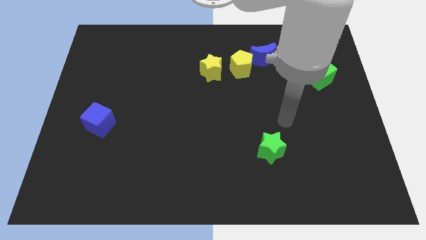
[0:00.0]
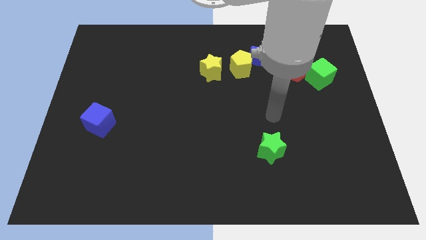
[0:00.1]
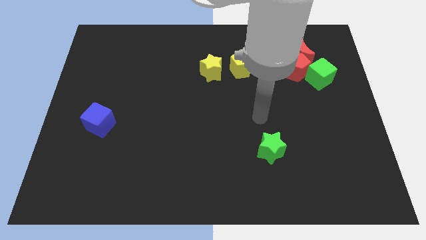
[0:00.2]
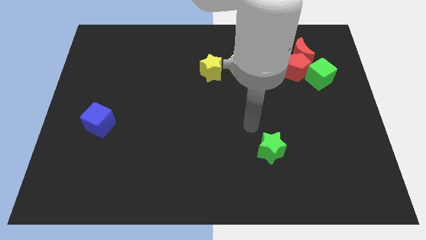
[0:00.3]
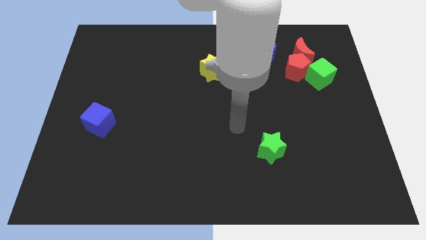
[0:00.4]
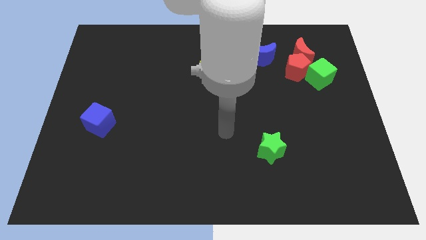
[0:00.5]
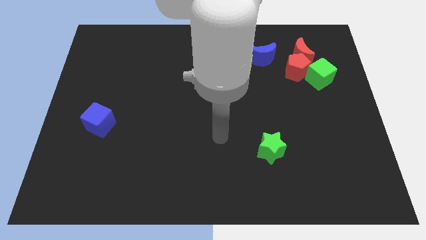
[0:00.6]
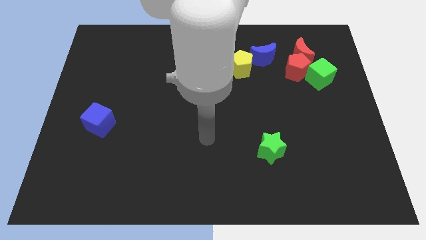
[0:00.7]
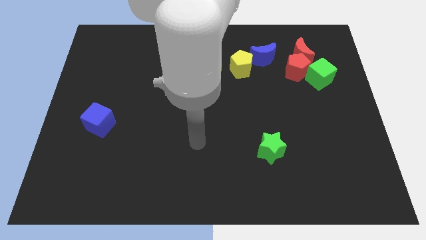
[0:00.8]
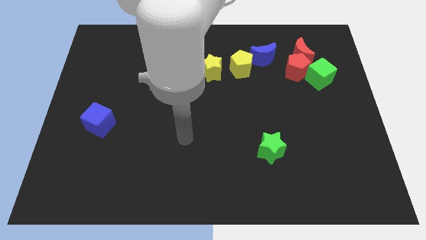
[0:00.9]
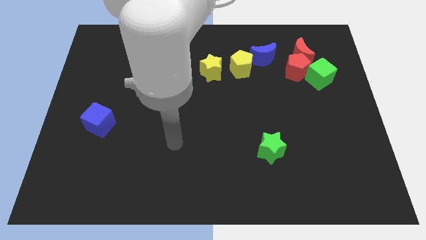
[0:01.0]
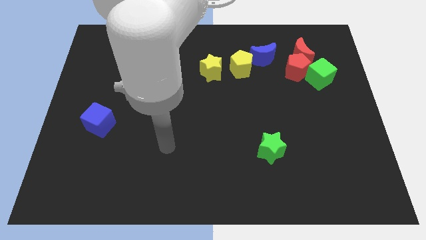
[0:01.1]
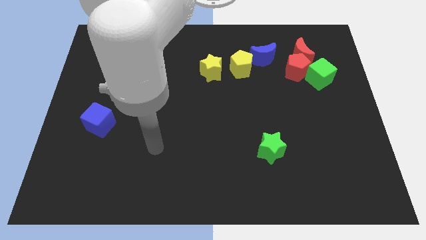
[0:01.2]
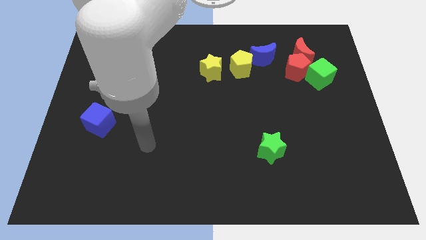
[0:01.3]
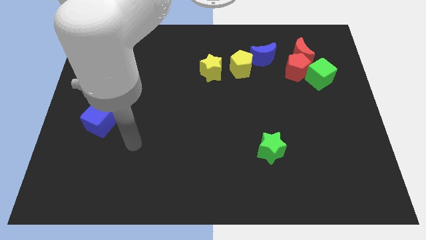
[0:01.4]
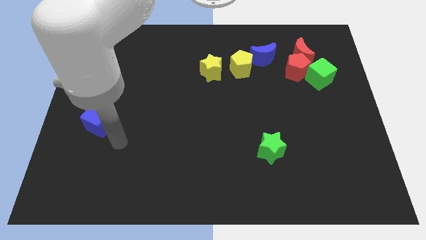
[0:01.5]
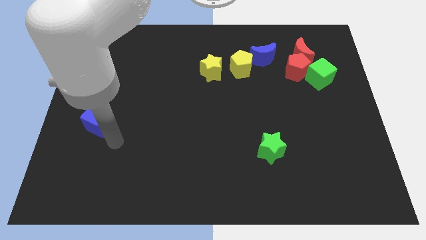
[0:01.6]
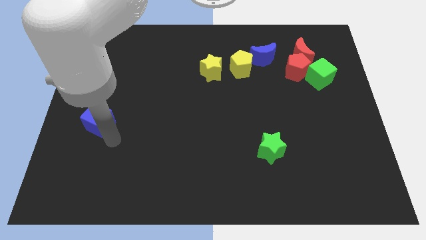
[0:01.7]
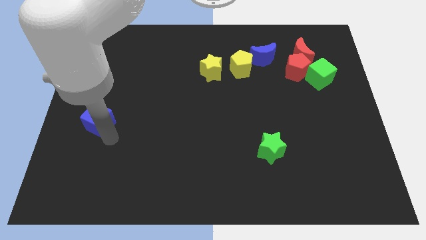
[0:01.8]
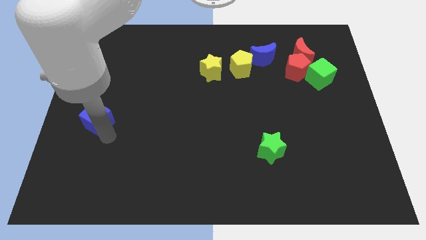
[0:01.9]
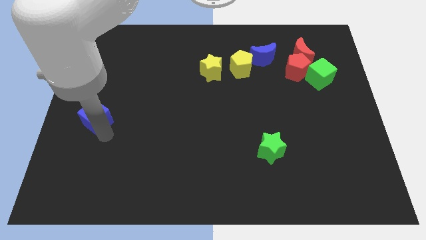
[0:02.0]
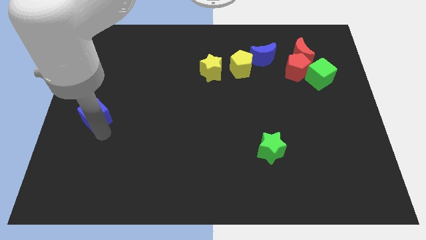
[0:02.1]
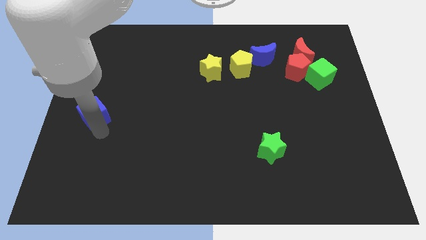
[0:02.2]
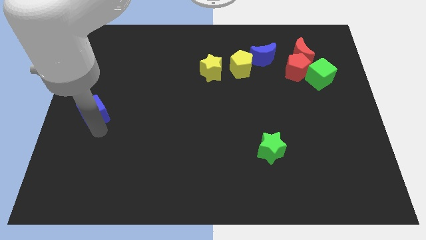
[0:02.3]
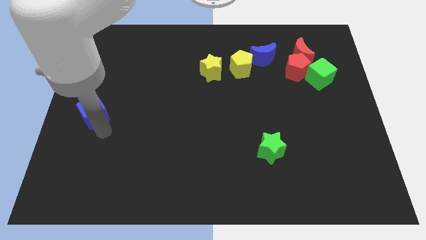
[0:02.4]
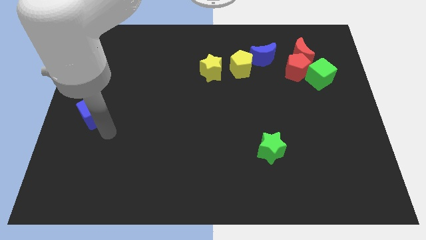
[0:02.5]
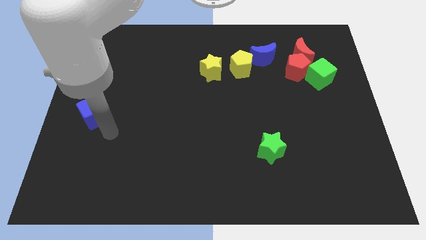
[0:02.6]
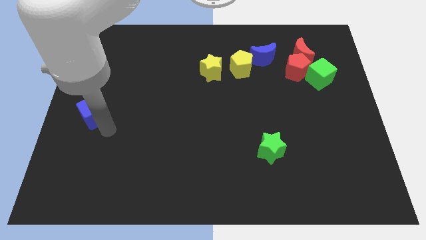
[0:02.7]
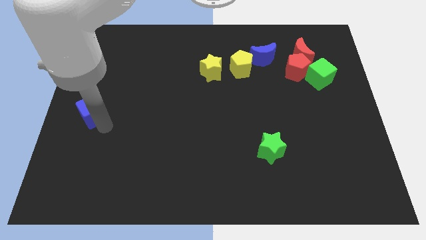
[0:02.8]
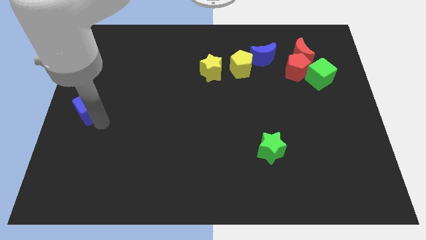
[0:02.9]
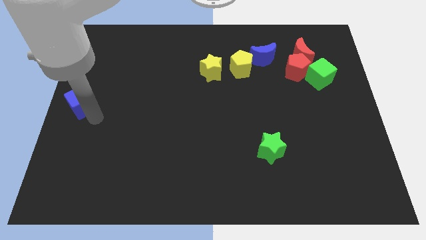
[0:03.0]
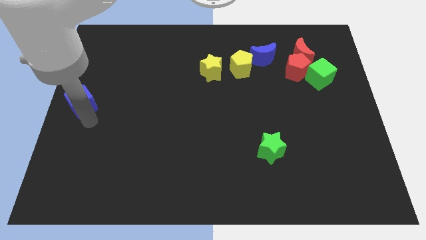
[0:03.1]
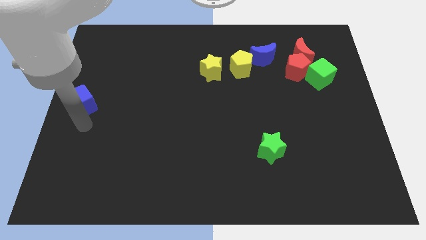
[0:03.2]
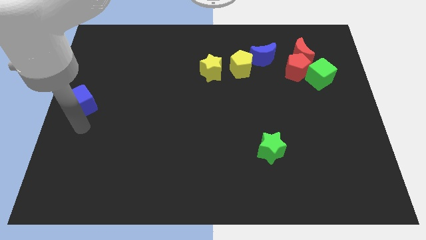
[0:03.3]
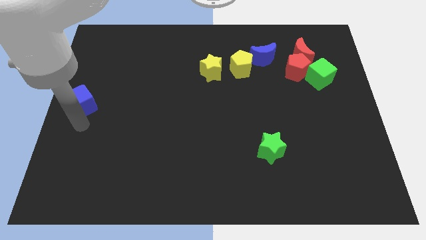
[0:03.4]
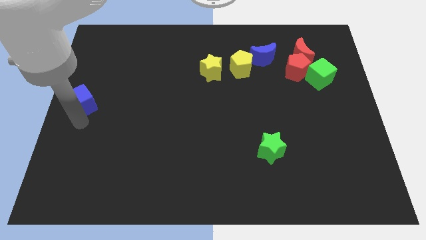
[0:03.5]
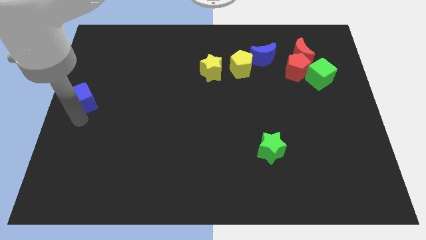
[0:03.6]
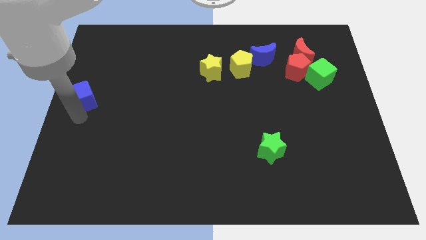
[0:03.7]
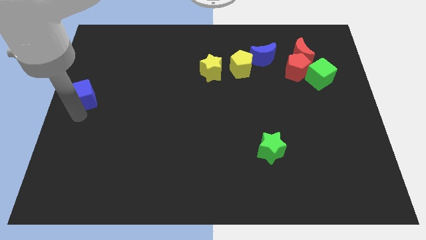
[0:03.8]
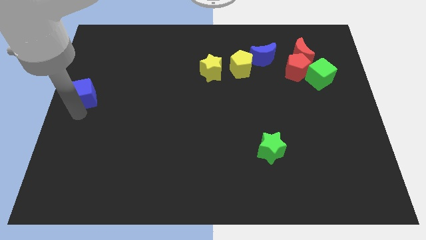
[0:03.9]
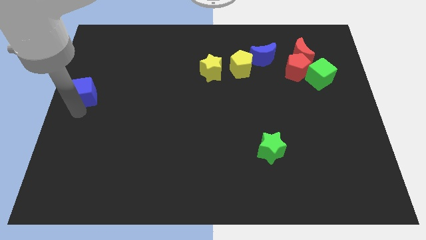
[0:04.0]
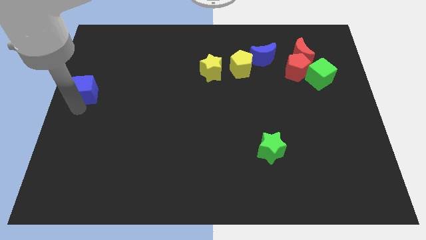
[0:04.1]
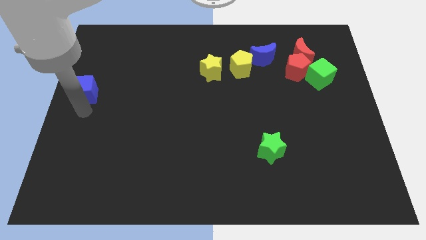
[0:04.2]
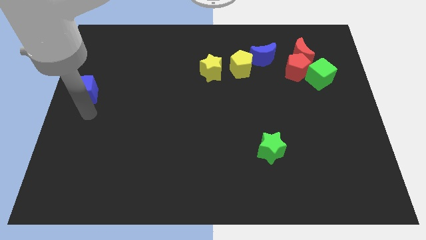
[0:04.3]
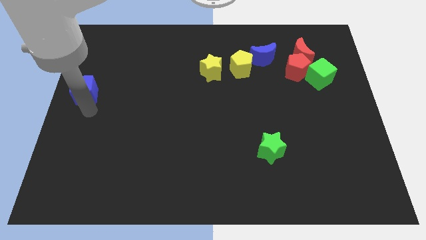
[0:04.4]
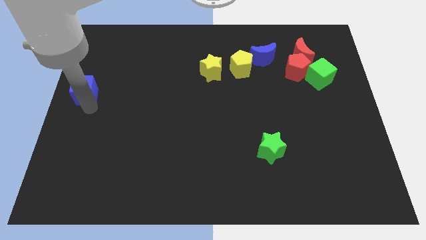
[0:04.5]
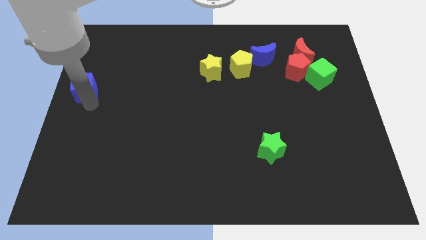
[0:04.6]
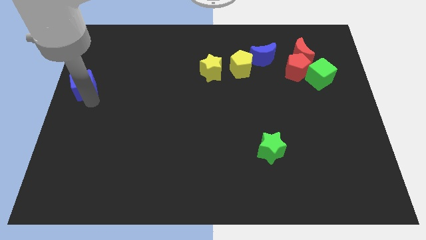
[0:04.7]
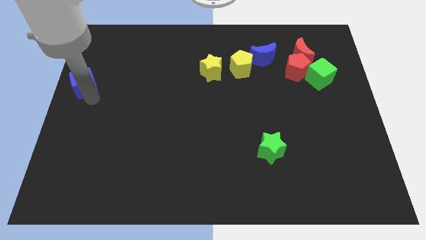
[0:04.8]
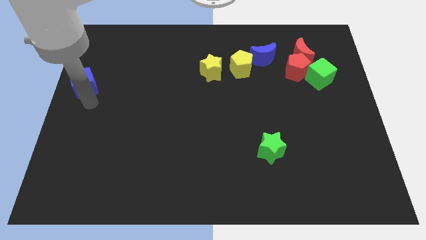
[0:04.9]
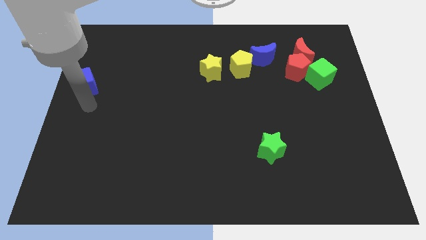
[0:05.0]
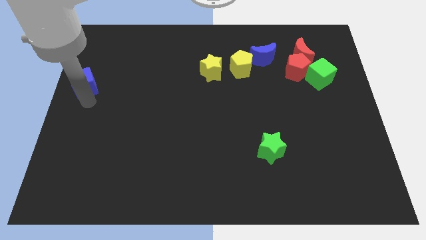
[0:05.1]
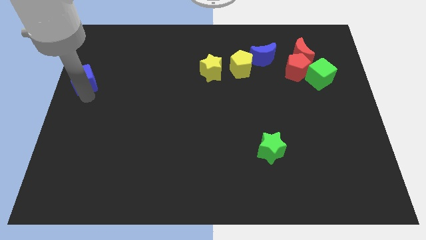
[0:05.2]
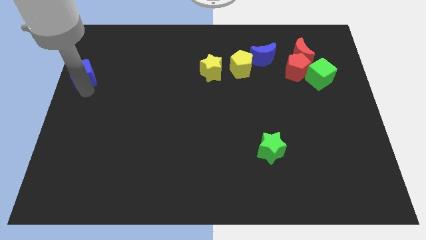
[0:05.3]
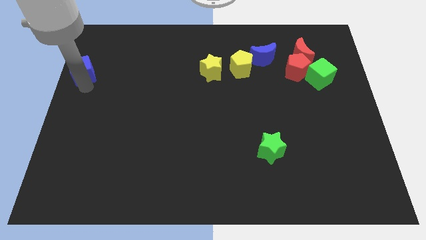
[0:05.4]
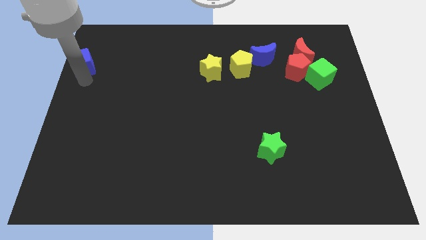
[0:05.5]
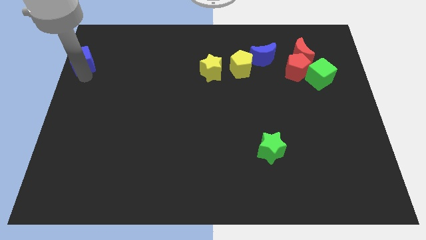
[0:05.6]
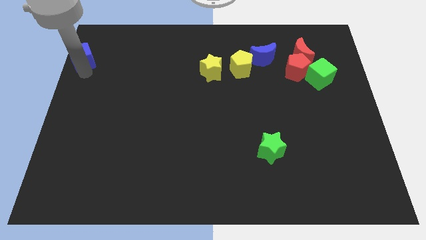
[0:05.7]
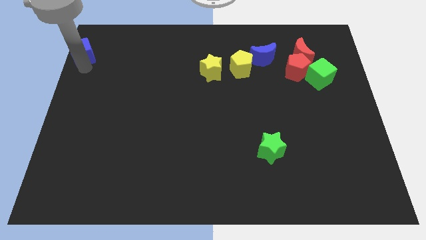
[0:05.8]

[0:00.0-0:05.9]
push the blue cube to the upper left corner

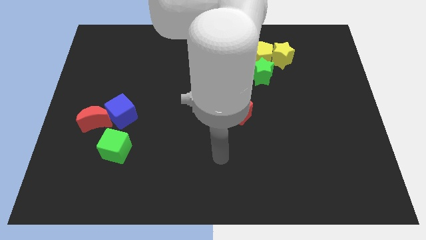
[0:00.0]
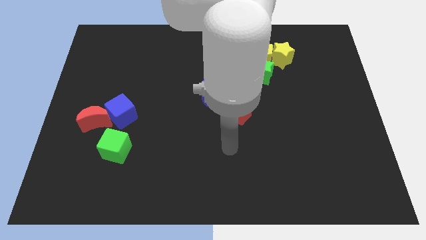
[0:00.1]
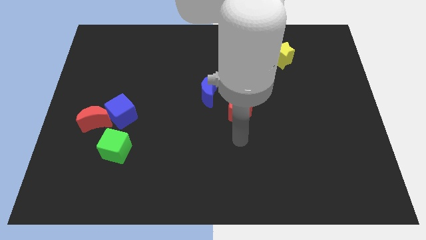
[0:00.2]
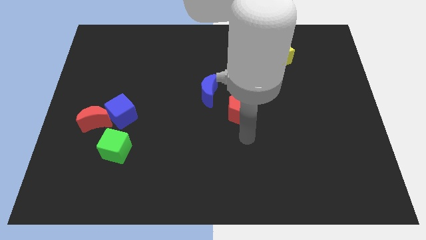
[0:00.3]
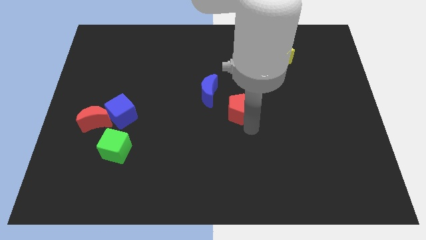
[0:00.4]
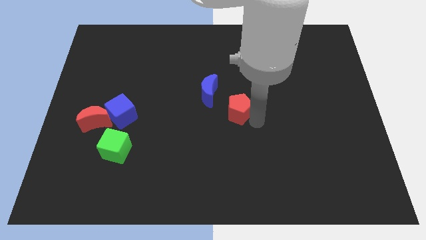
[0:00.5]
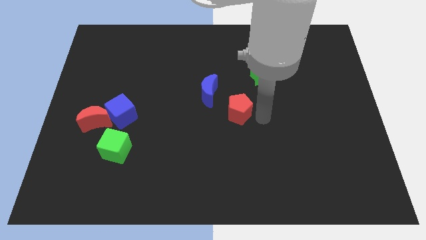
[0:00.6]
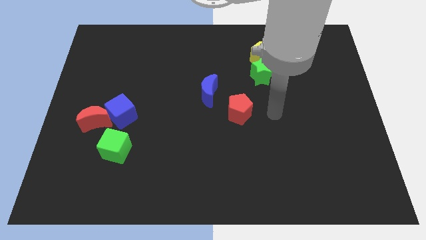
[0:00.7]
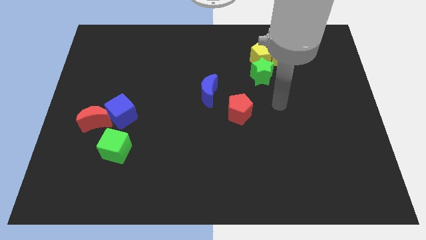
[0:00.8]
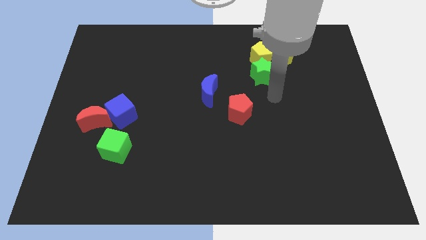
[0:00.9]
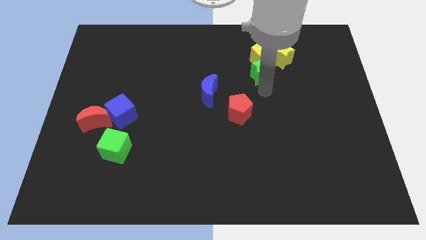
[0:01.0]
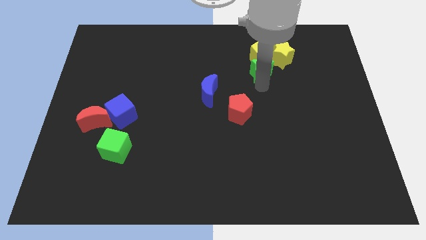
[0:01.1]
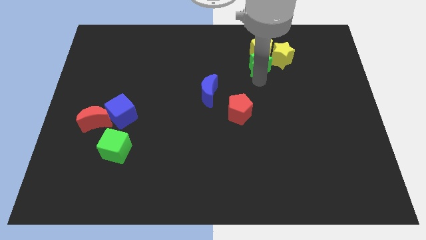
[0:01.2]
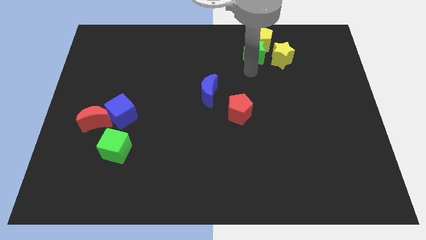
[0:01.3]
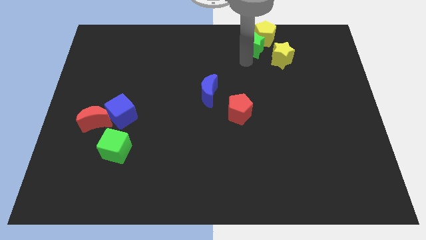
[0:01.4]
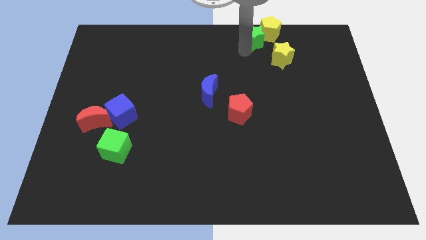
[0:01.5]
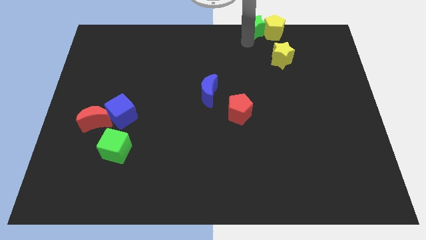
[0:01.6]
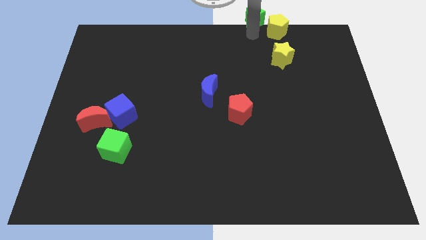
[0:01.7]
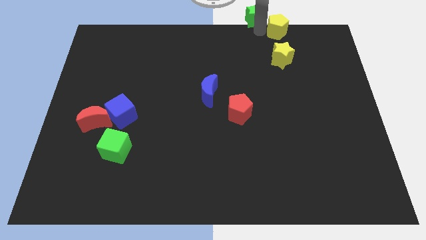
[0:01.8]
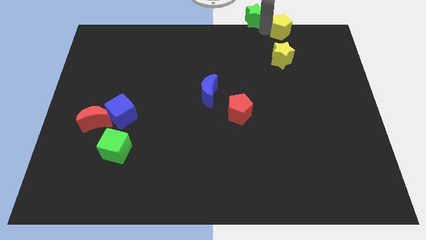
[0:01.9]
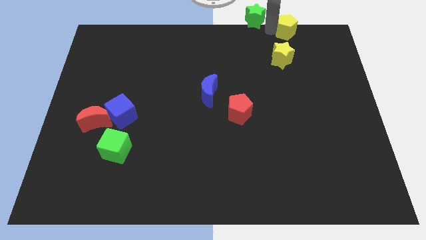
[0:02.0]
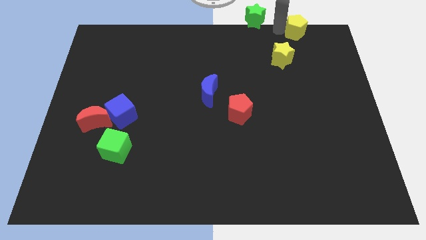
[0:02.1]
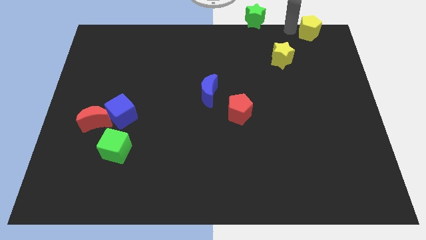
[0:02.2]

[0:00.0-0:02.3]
put the yellow pentagon to the top right corner
